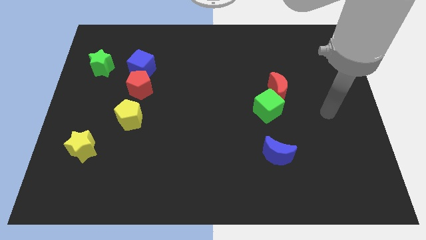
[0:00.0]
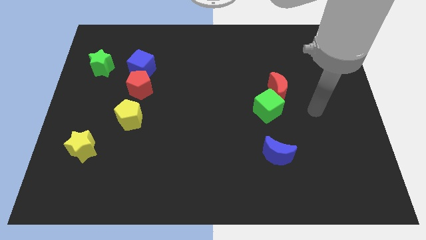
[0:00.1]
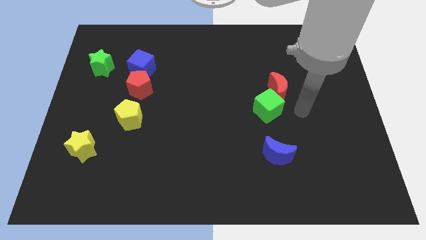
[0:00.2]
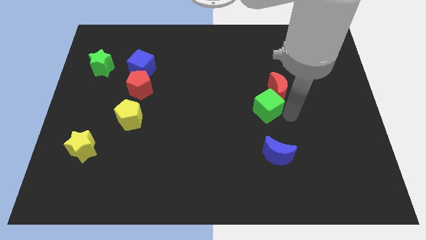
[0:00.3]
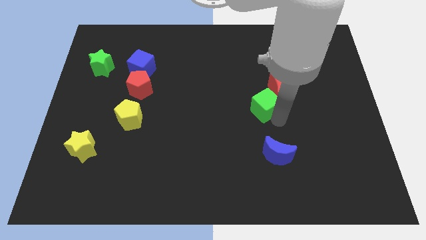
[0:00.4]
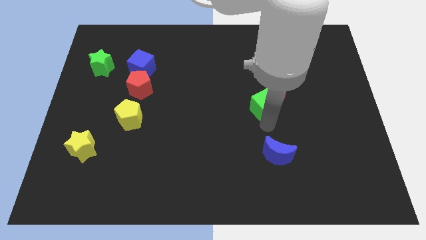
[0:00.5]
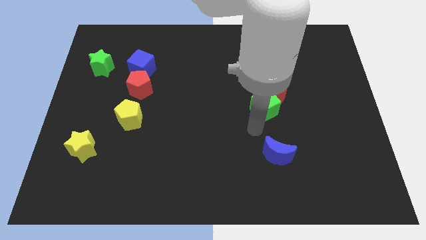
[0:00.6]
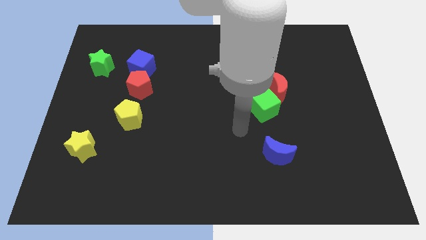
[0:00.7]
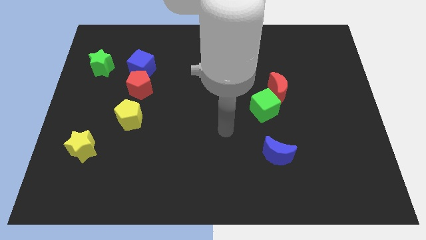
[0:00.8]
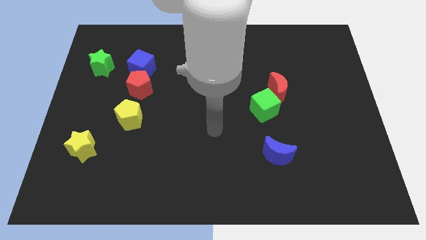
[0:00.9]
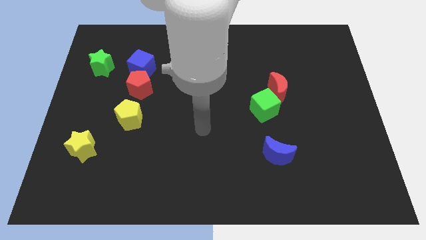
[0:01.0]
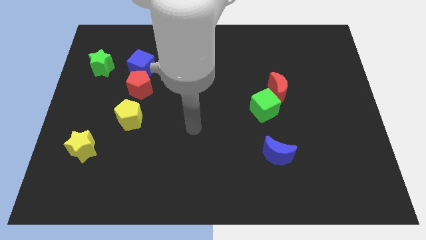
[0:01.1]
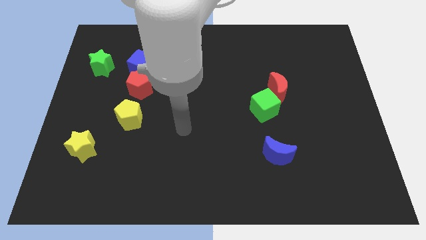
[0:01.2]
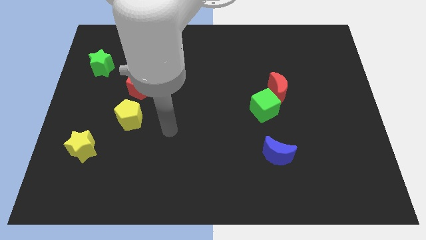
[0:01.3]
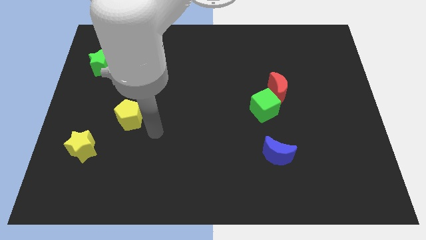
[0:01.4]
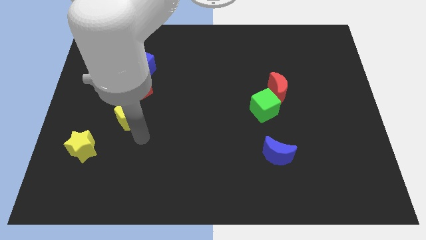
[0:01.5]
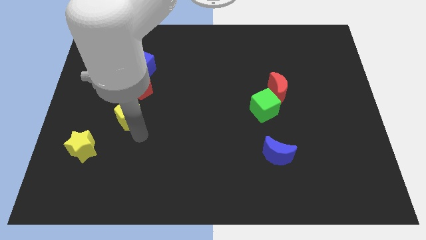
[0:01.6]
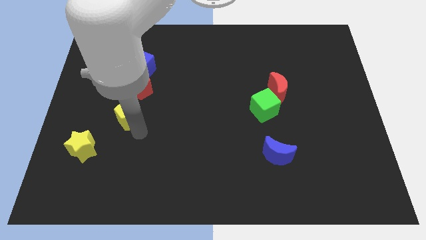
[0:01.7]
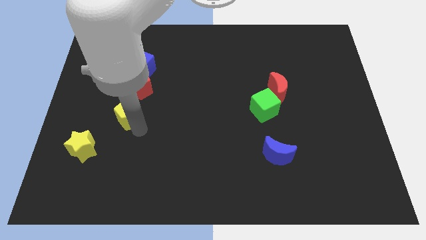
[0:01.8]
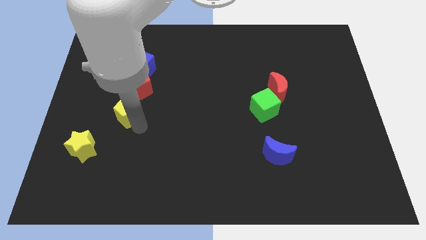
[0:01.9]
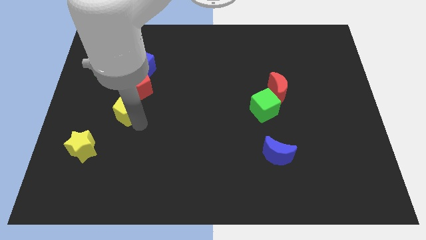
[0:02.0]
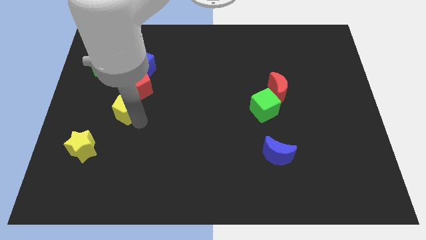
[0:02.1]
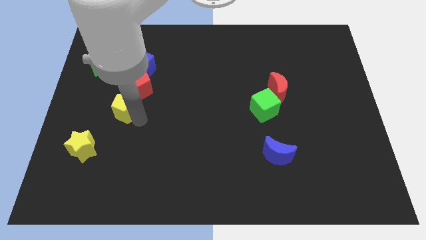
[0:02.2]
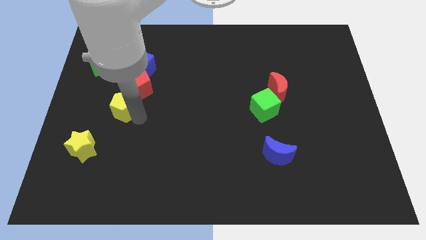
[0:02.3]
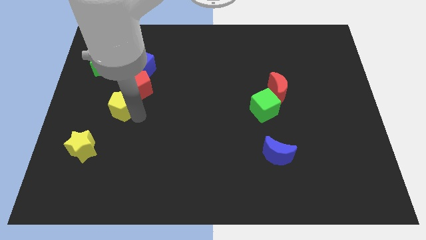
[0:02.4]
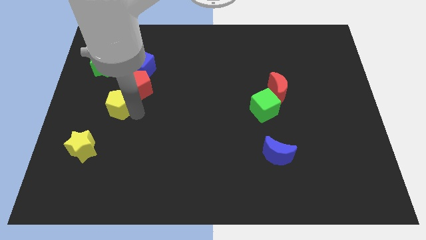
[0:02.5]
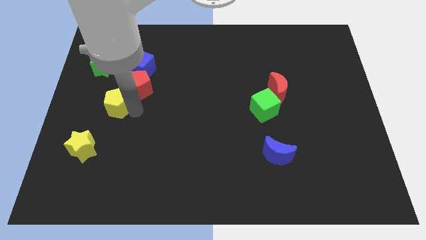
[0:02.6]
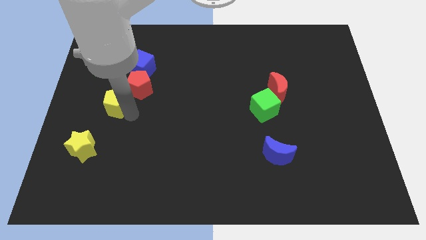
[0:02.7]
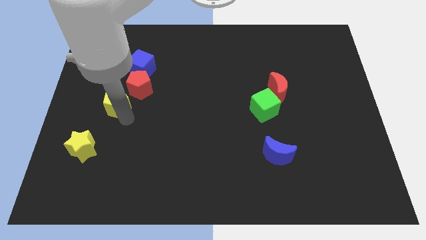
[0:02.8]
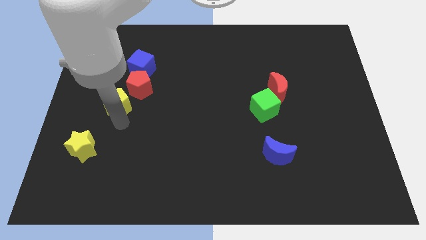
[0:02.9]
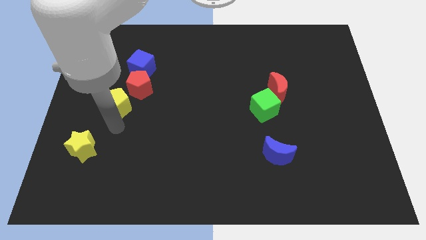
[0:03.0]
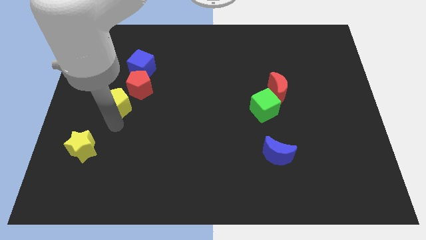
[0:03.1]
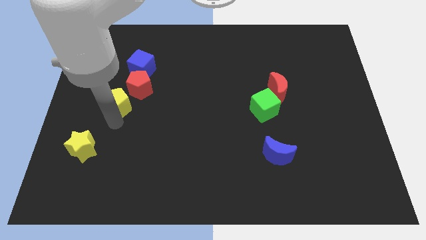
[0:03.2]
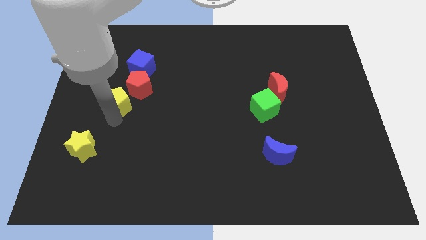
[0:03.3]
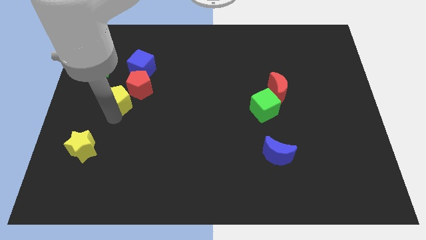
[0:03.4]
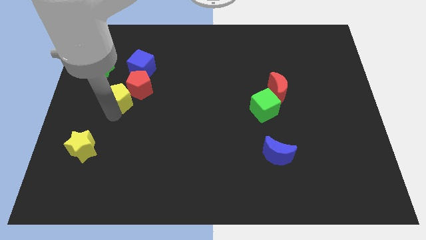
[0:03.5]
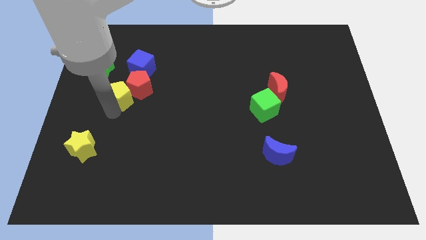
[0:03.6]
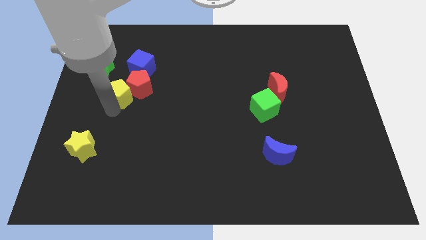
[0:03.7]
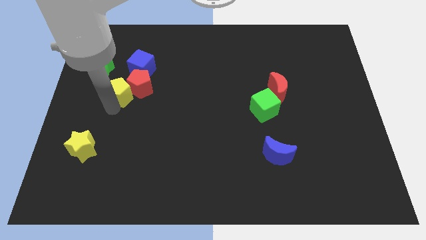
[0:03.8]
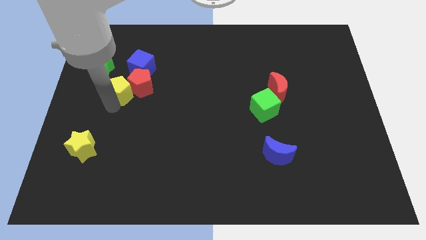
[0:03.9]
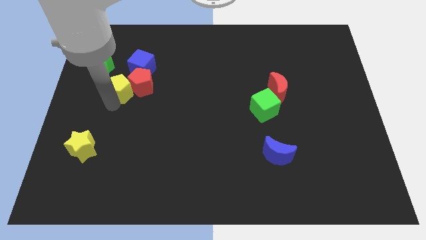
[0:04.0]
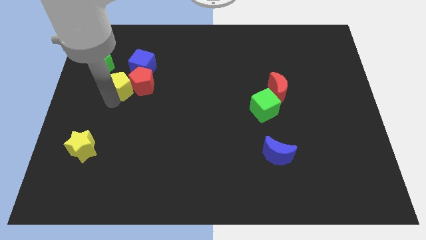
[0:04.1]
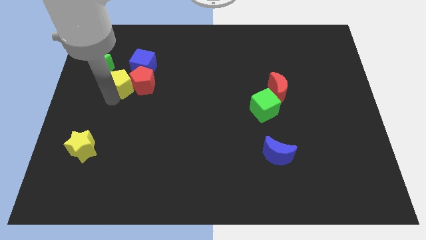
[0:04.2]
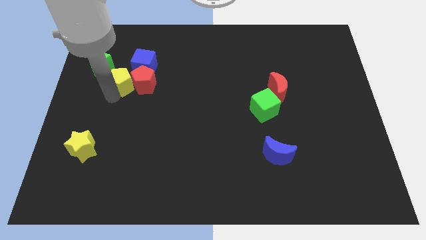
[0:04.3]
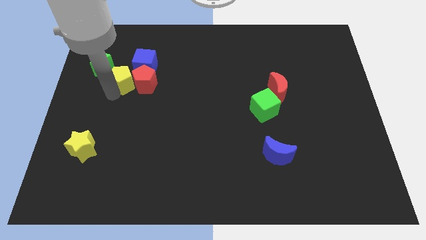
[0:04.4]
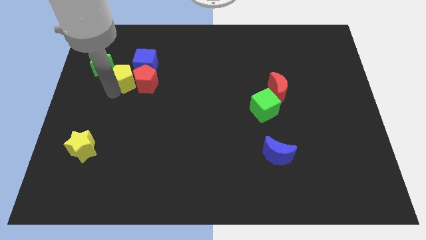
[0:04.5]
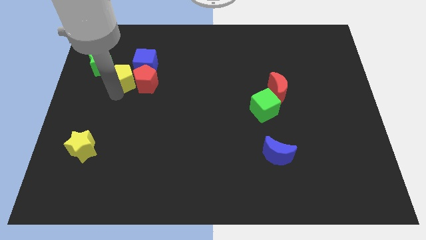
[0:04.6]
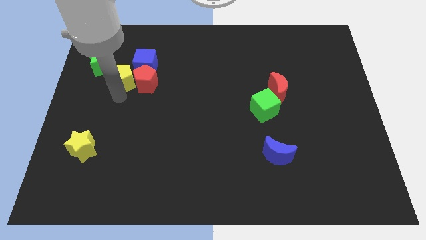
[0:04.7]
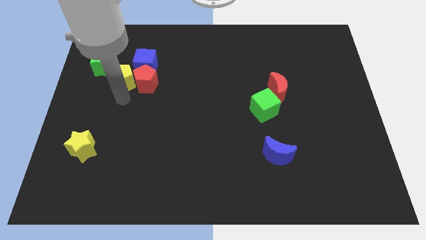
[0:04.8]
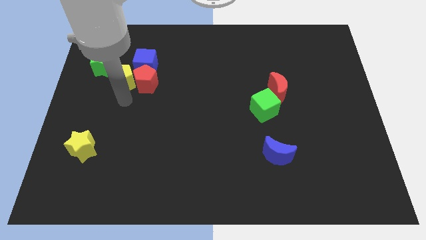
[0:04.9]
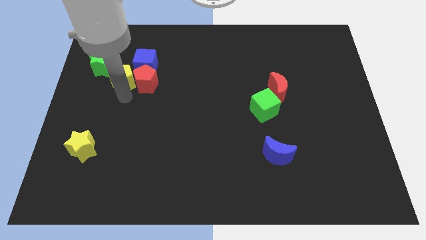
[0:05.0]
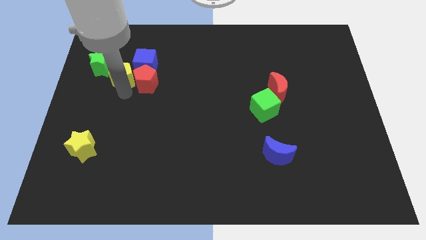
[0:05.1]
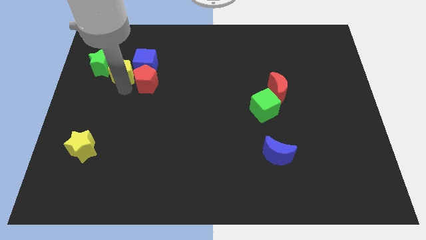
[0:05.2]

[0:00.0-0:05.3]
slide the yellow pentagon next to the blue cube

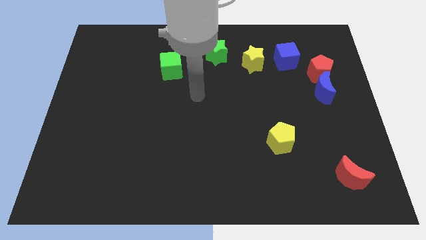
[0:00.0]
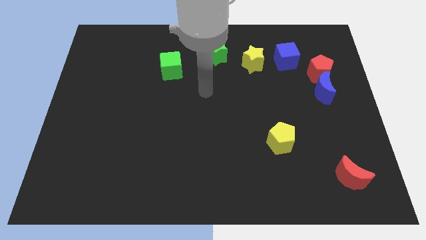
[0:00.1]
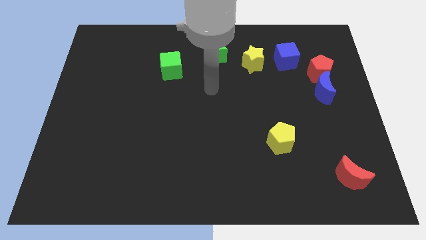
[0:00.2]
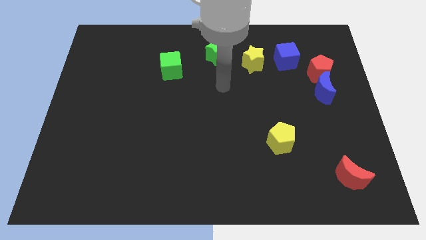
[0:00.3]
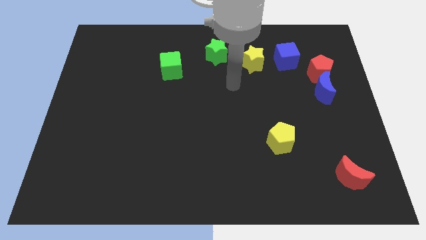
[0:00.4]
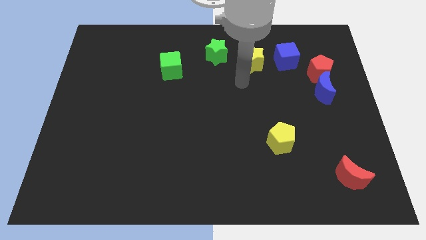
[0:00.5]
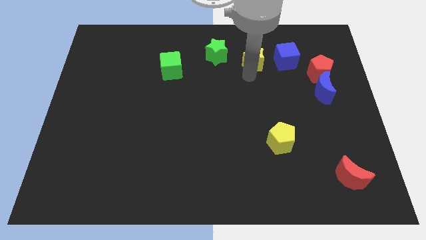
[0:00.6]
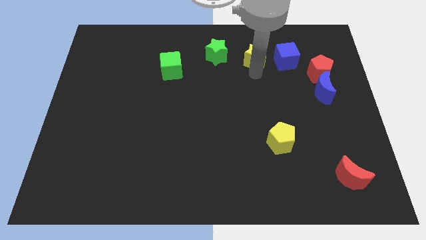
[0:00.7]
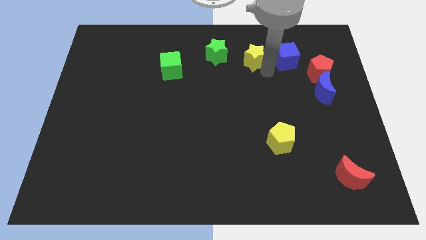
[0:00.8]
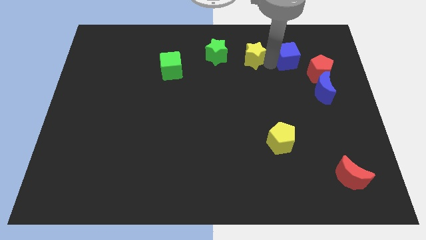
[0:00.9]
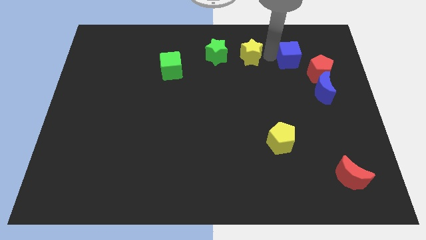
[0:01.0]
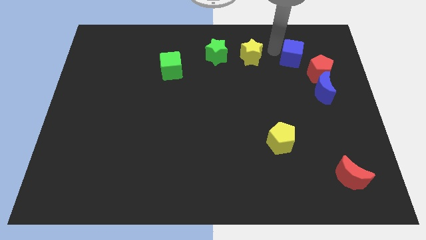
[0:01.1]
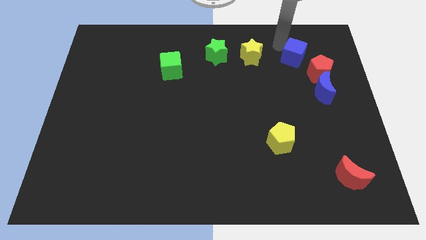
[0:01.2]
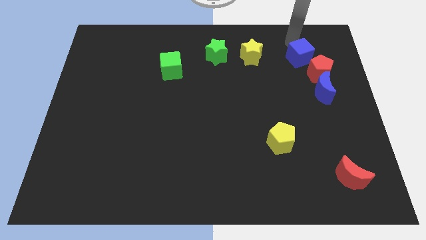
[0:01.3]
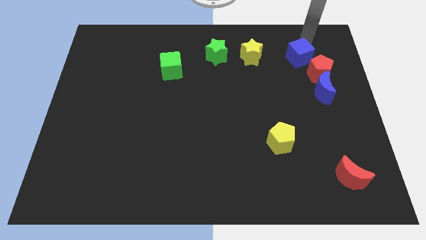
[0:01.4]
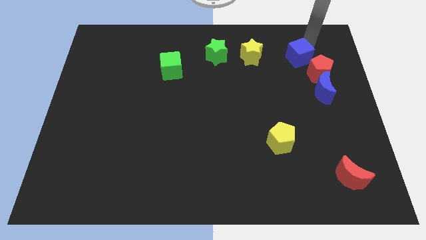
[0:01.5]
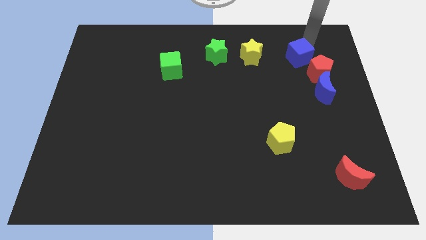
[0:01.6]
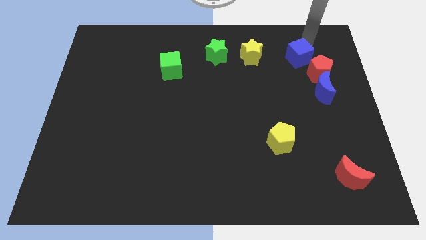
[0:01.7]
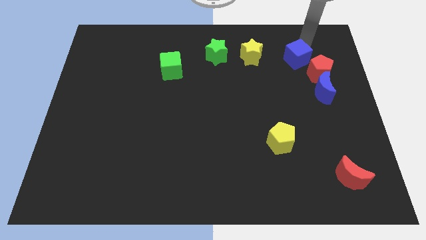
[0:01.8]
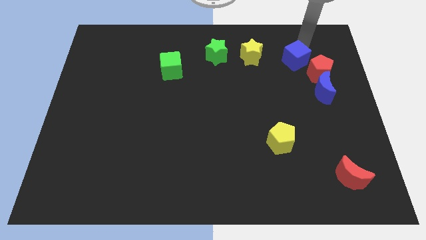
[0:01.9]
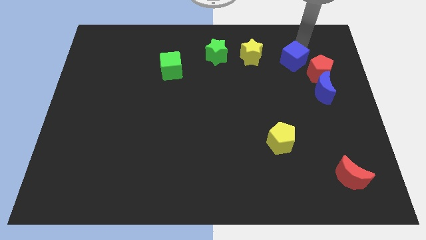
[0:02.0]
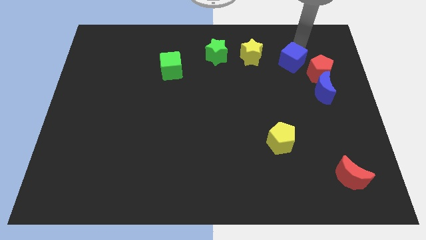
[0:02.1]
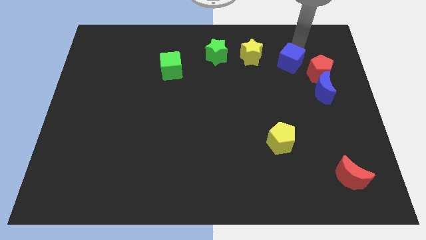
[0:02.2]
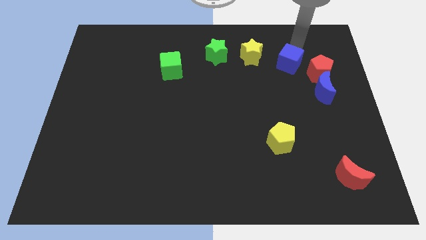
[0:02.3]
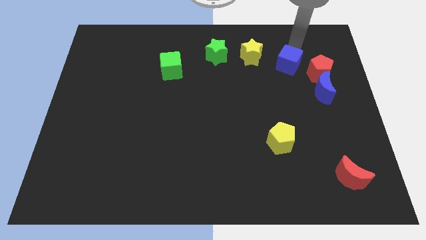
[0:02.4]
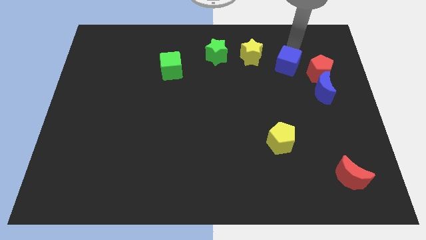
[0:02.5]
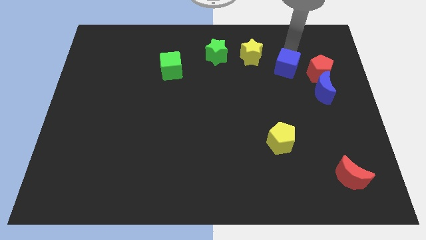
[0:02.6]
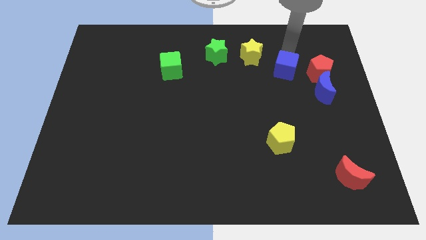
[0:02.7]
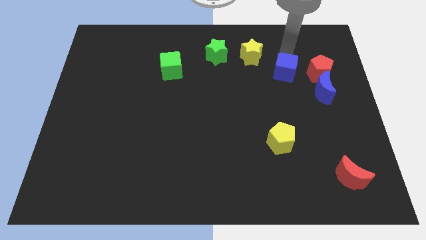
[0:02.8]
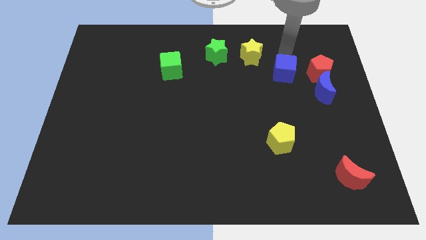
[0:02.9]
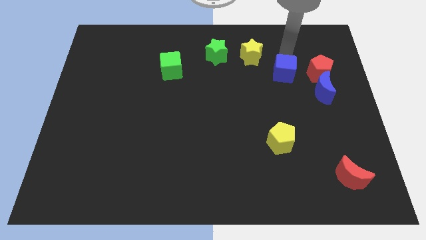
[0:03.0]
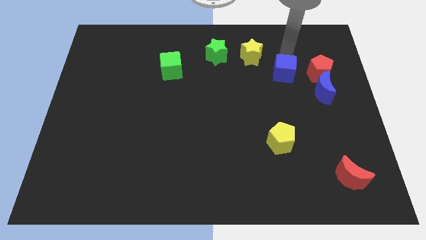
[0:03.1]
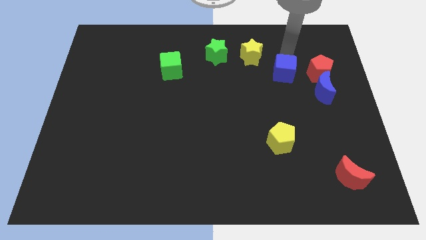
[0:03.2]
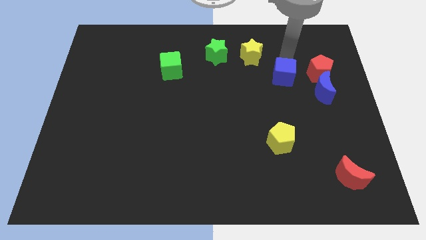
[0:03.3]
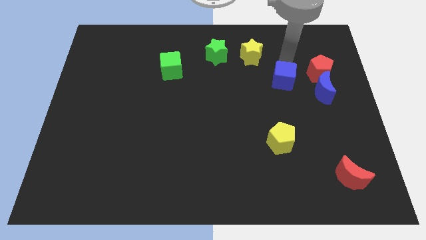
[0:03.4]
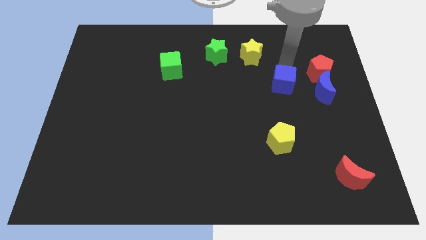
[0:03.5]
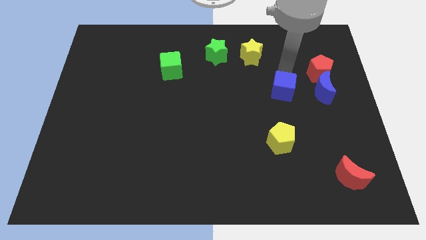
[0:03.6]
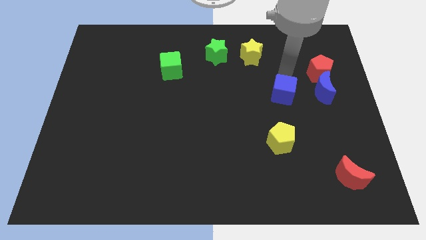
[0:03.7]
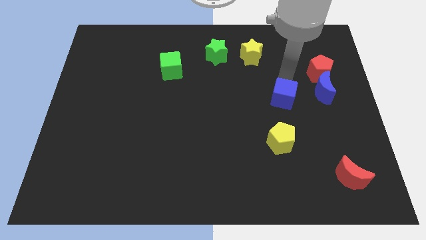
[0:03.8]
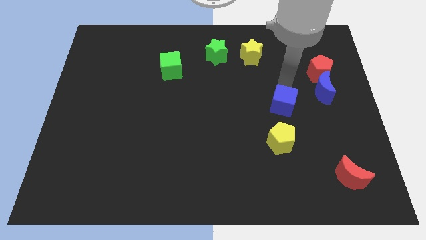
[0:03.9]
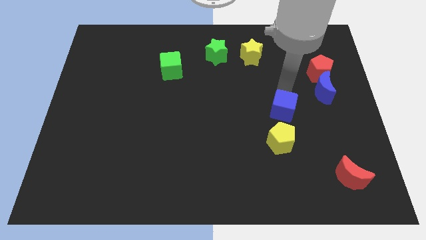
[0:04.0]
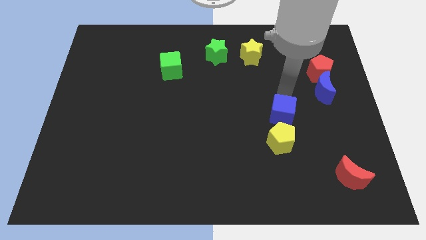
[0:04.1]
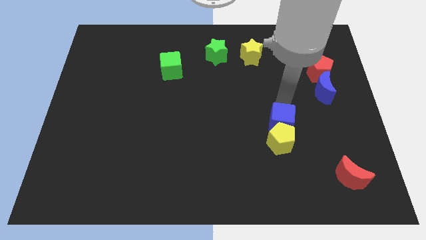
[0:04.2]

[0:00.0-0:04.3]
slide the blue cube to the yellow pentagon
